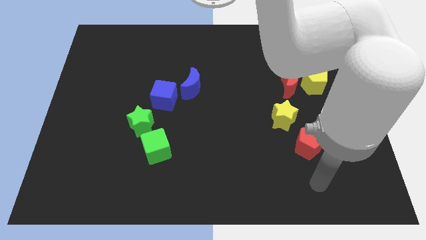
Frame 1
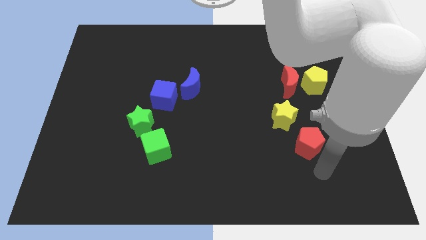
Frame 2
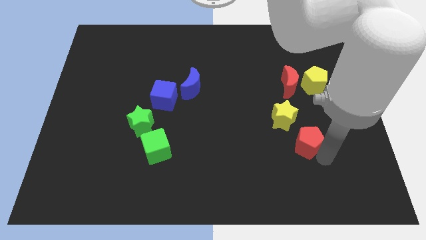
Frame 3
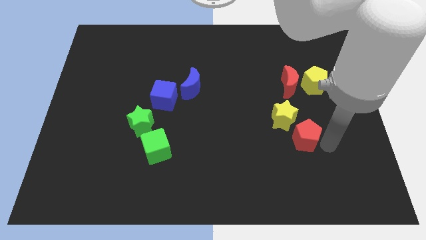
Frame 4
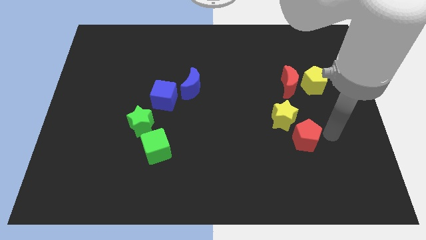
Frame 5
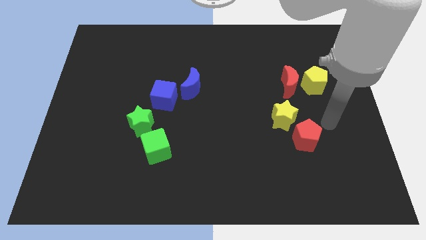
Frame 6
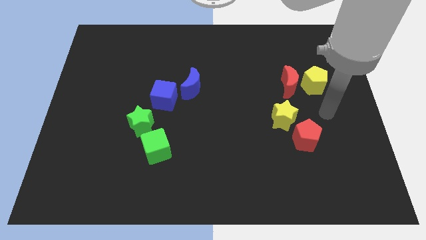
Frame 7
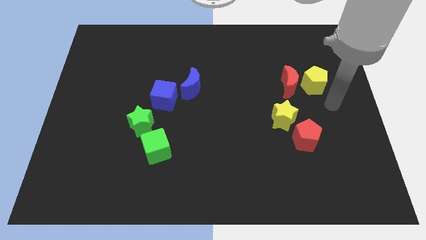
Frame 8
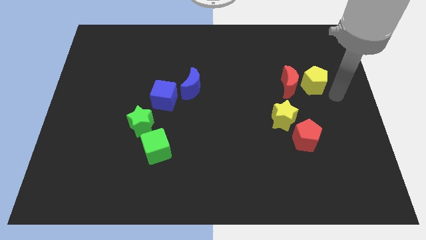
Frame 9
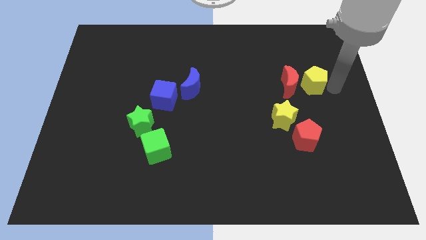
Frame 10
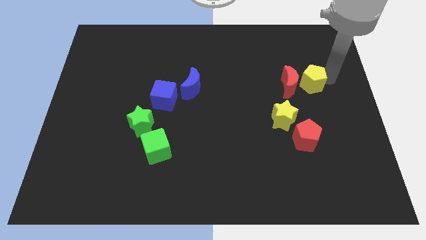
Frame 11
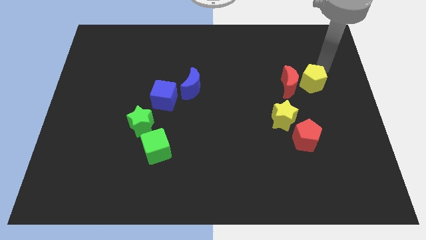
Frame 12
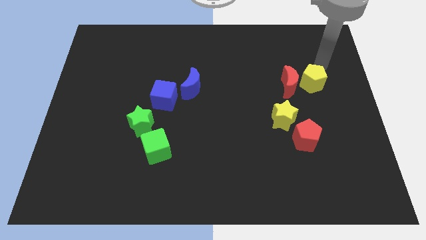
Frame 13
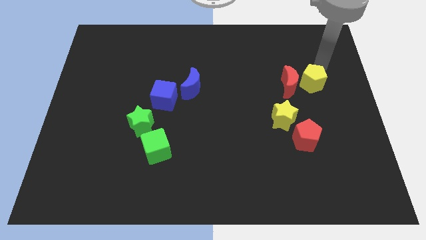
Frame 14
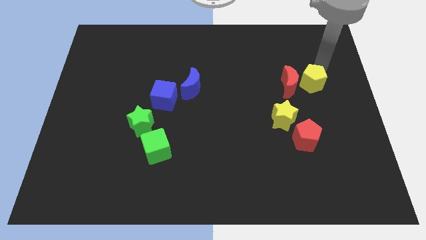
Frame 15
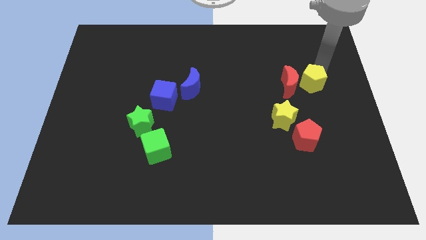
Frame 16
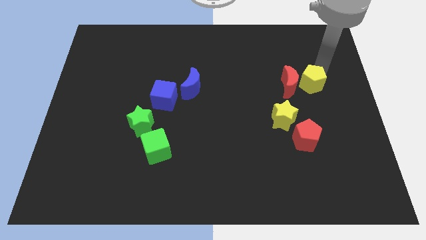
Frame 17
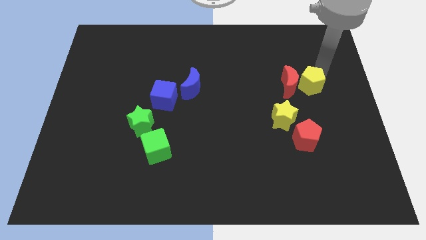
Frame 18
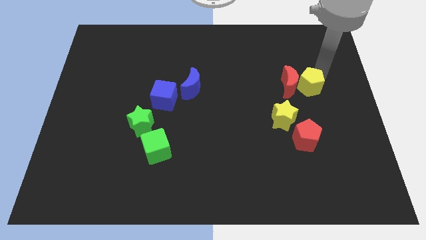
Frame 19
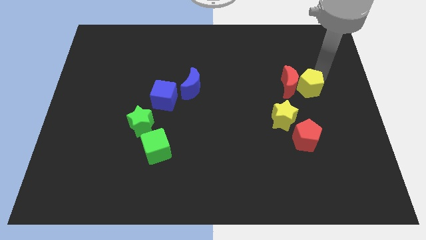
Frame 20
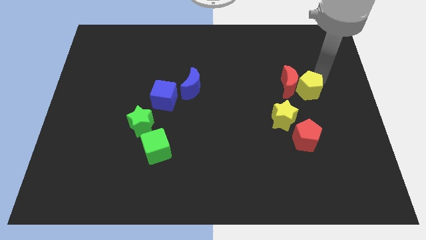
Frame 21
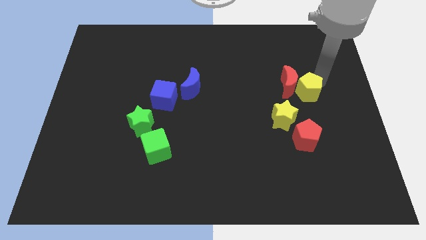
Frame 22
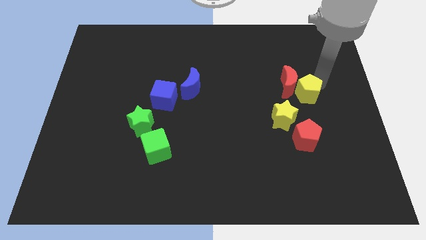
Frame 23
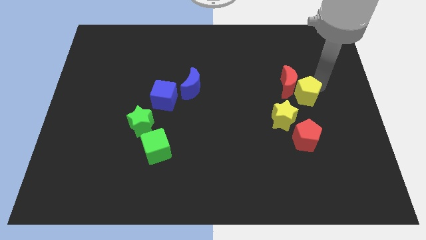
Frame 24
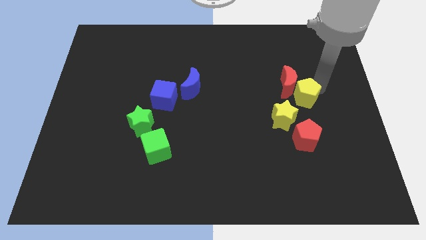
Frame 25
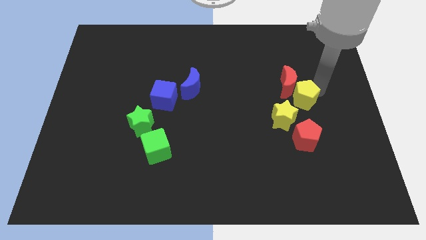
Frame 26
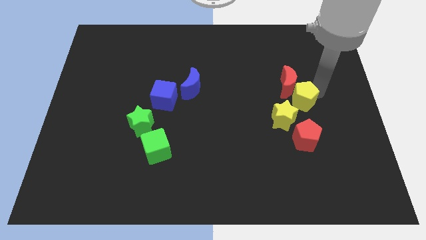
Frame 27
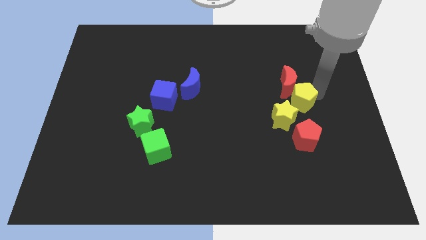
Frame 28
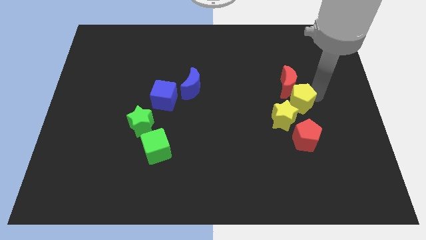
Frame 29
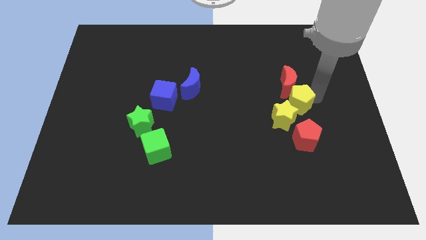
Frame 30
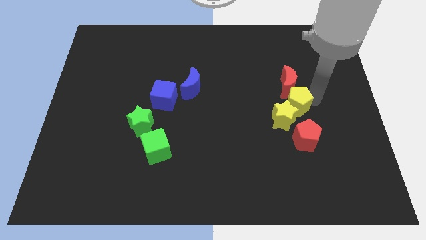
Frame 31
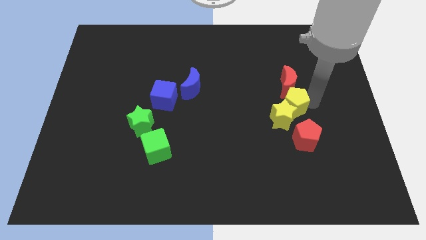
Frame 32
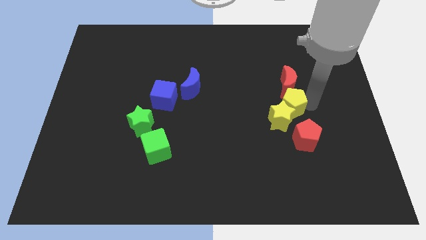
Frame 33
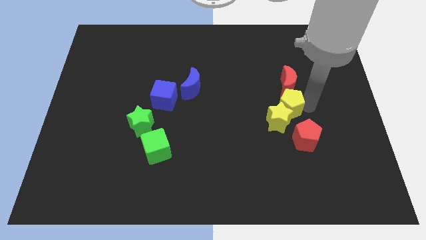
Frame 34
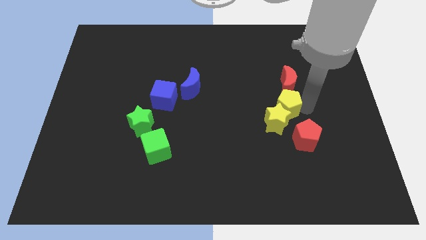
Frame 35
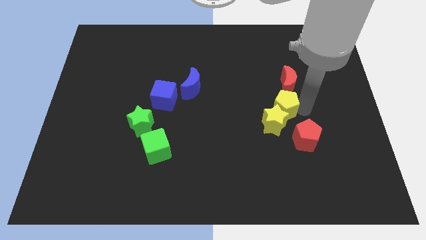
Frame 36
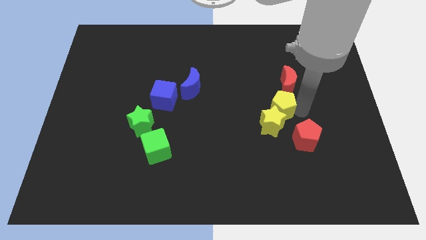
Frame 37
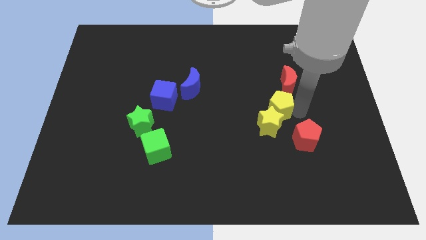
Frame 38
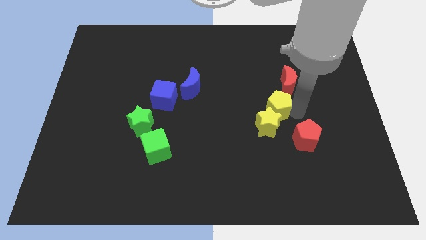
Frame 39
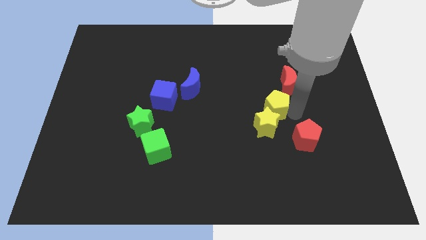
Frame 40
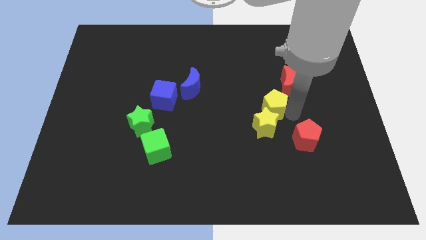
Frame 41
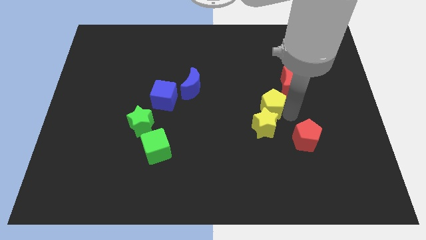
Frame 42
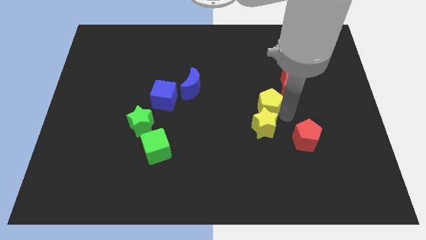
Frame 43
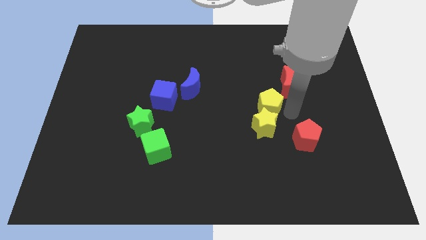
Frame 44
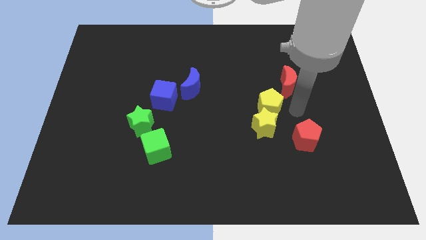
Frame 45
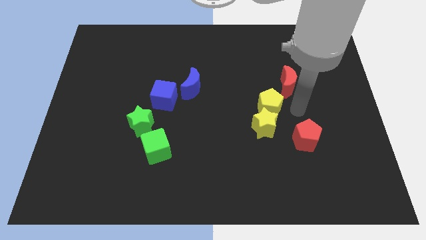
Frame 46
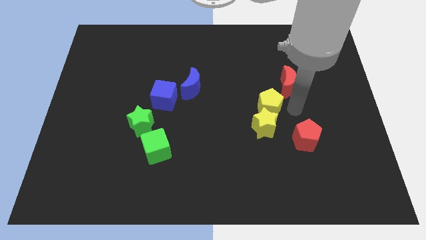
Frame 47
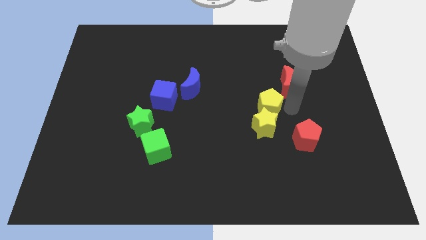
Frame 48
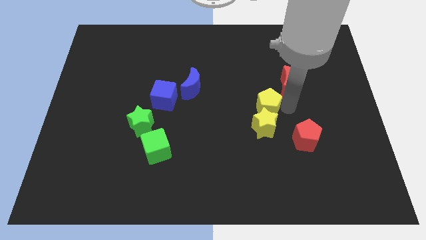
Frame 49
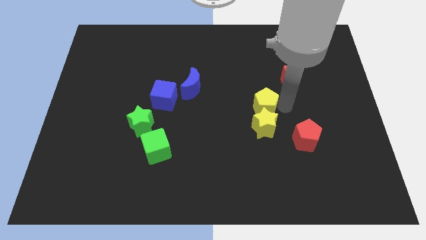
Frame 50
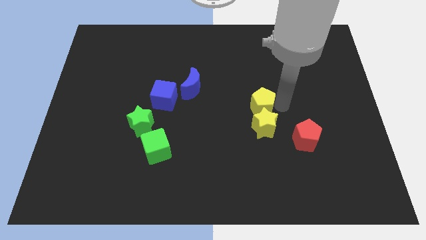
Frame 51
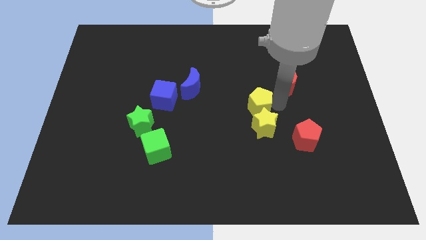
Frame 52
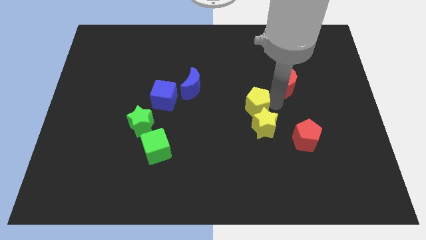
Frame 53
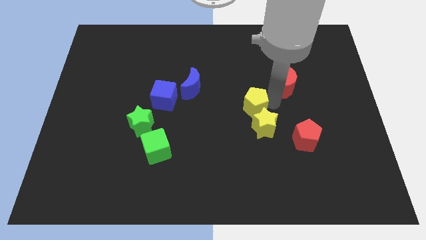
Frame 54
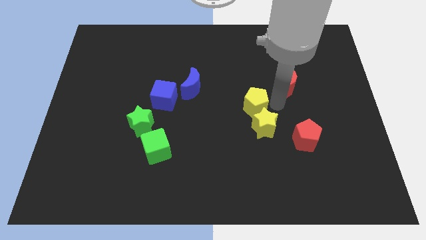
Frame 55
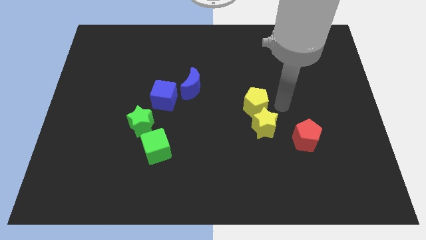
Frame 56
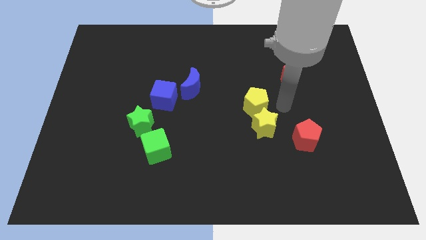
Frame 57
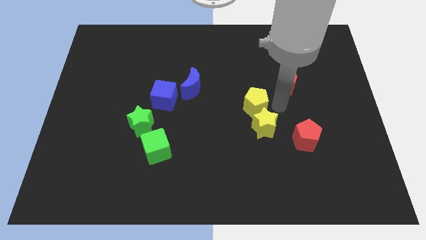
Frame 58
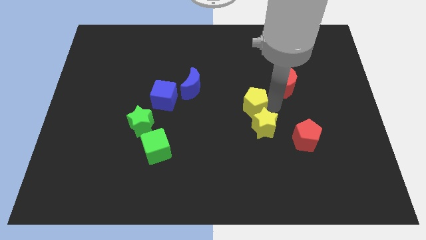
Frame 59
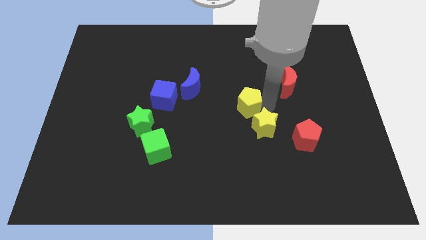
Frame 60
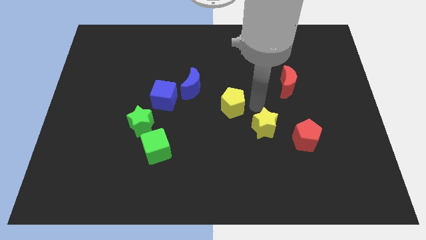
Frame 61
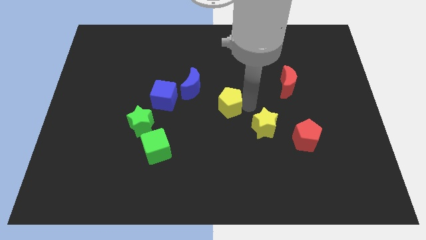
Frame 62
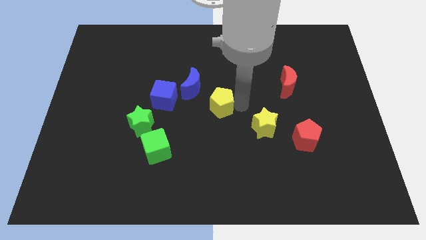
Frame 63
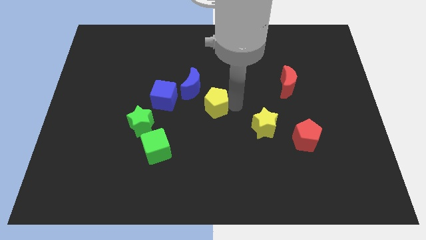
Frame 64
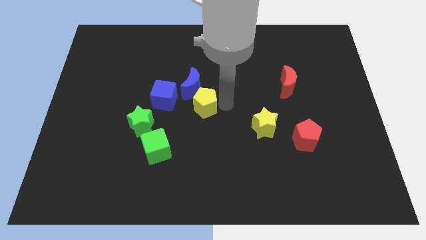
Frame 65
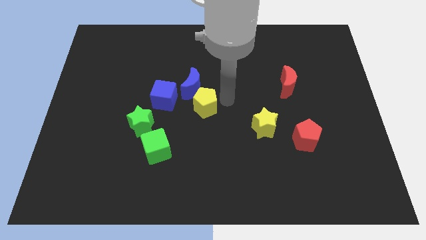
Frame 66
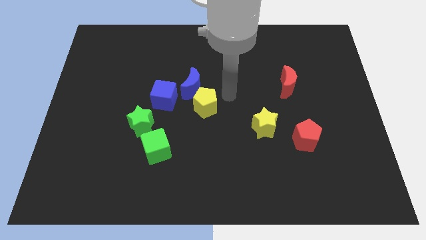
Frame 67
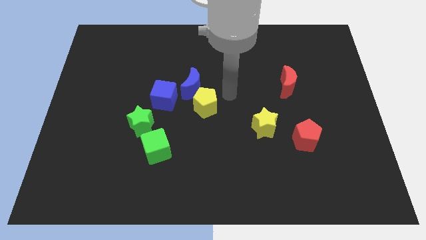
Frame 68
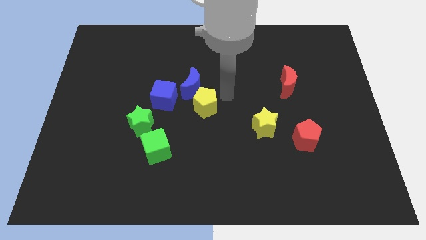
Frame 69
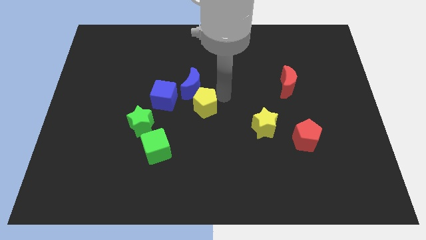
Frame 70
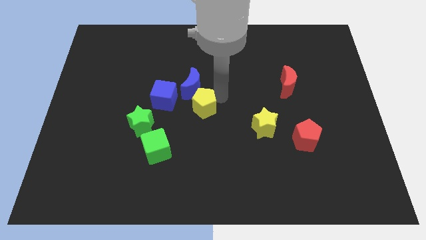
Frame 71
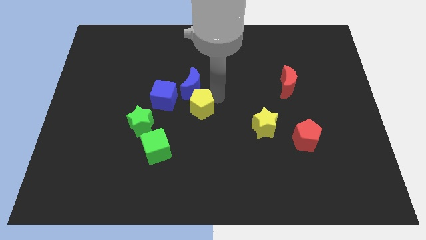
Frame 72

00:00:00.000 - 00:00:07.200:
put the yellow pentagon diagonally down and to the right of the blue cube
